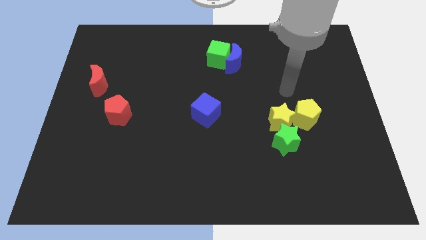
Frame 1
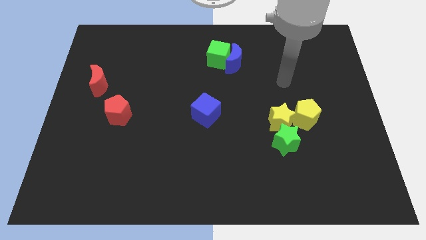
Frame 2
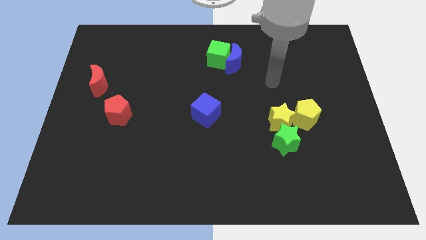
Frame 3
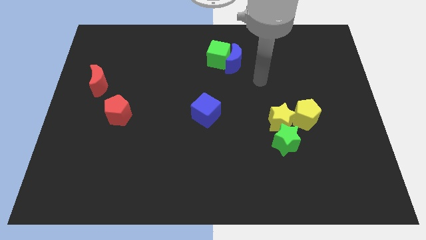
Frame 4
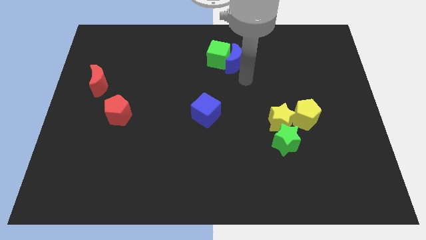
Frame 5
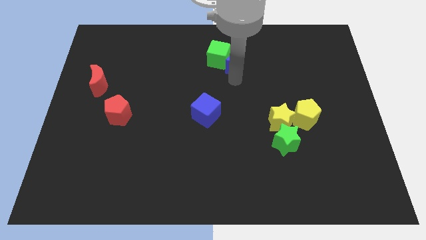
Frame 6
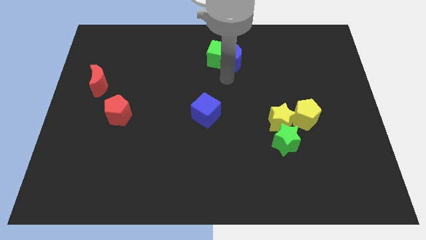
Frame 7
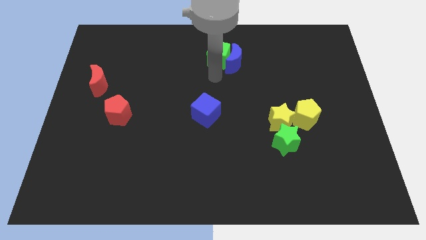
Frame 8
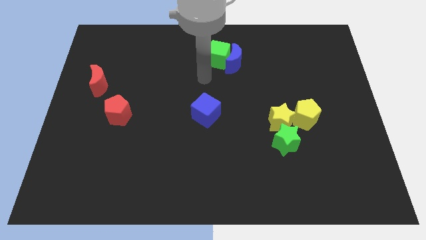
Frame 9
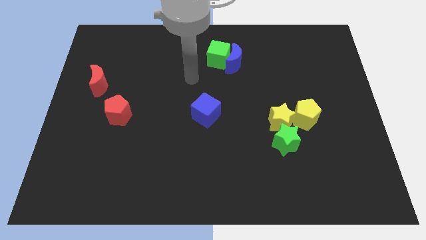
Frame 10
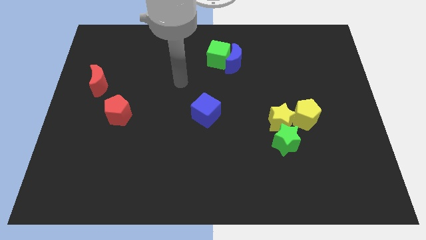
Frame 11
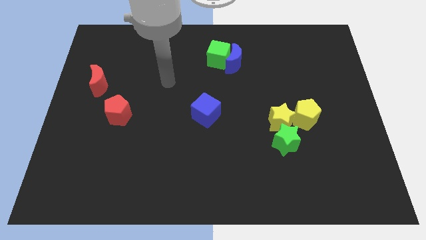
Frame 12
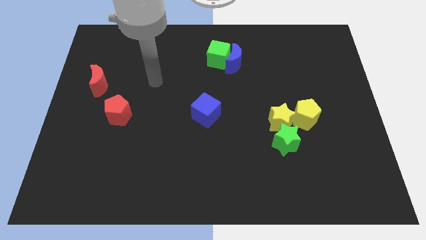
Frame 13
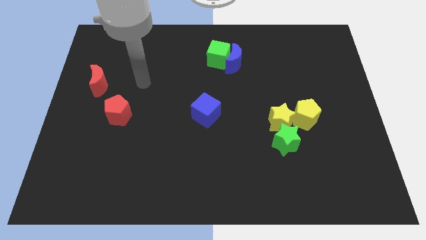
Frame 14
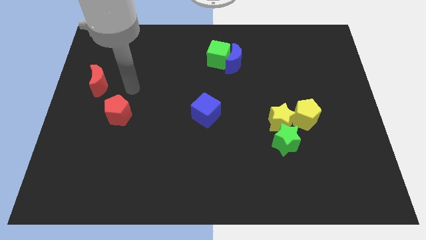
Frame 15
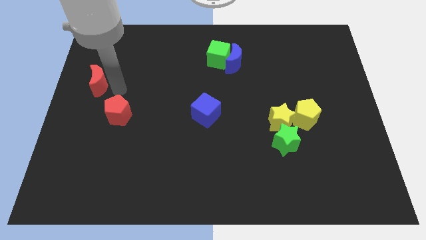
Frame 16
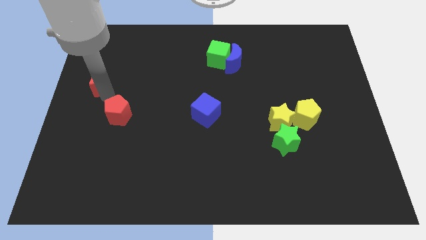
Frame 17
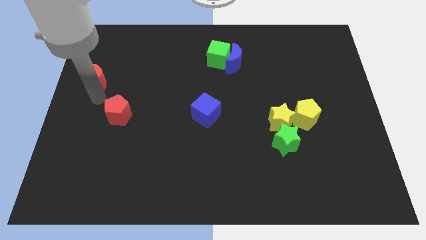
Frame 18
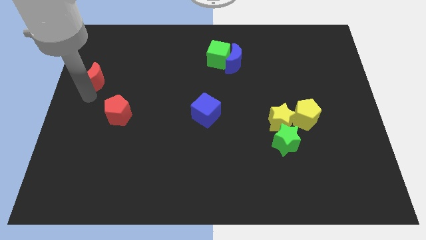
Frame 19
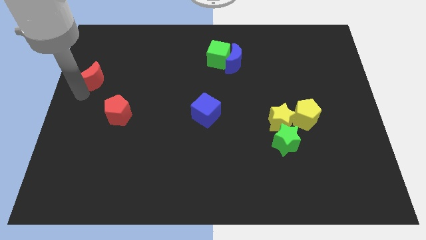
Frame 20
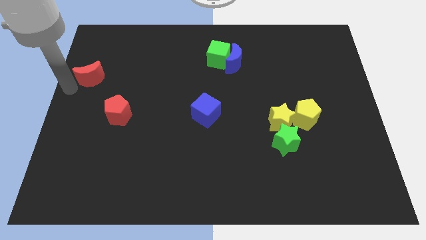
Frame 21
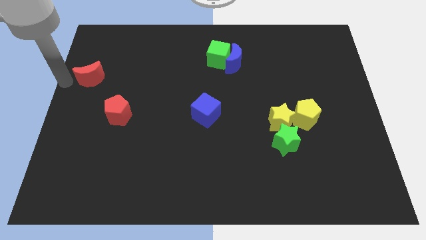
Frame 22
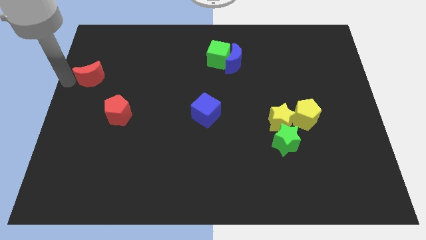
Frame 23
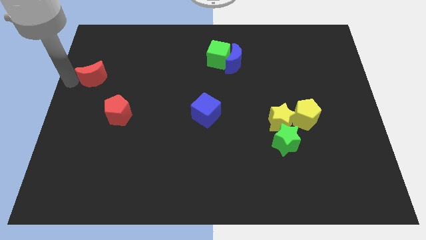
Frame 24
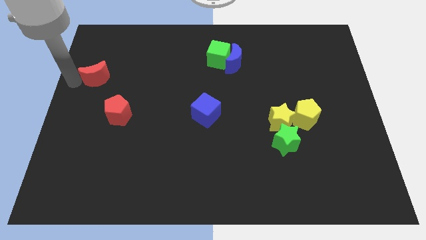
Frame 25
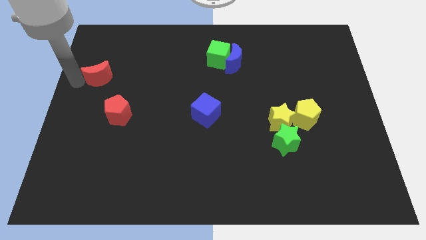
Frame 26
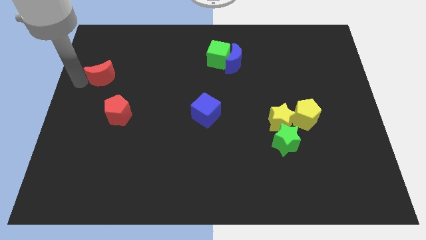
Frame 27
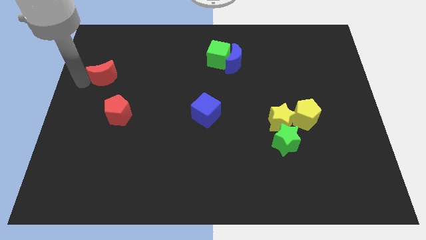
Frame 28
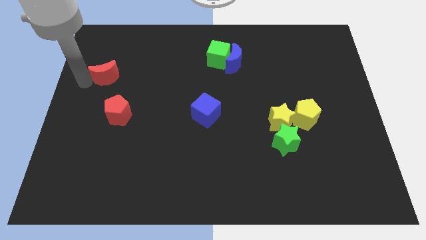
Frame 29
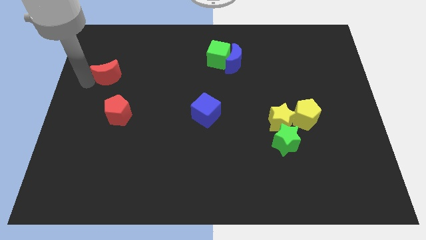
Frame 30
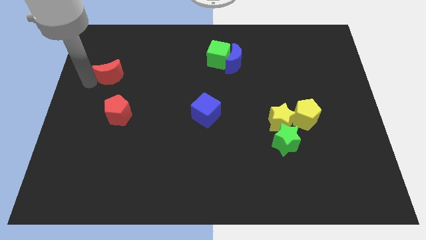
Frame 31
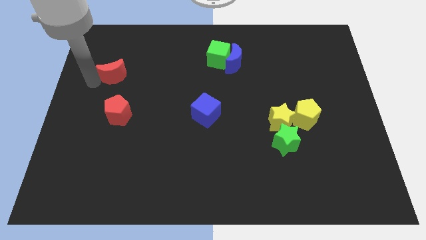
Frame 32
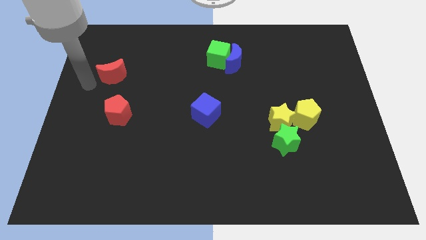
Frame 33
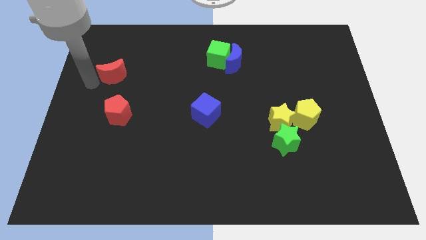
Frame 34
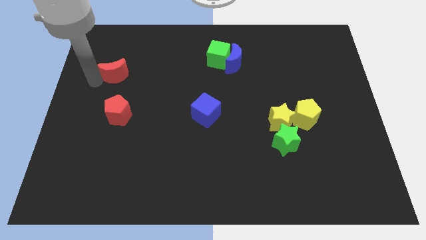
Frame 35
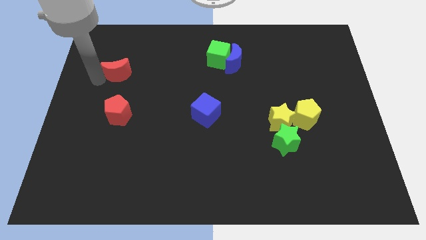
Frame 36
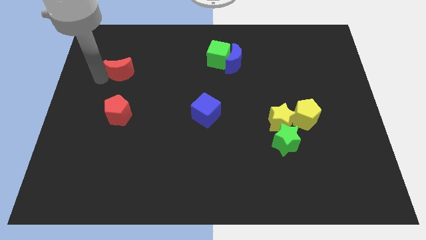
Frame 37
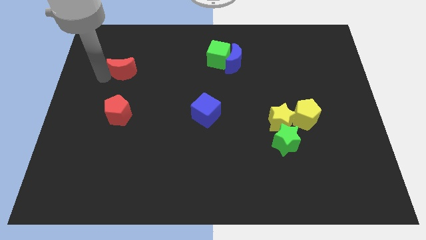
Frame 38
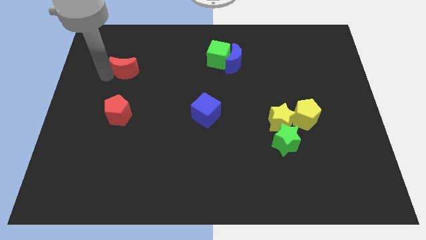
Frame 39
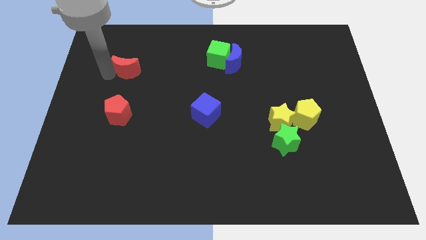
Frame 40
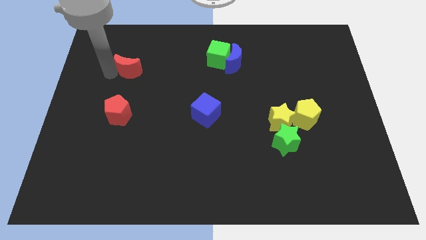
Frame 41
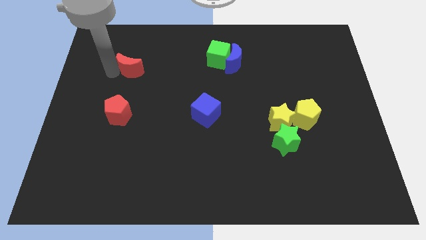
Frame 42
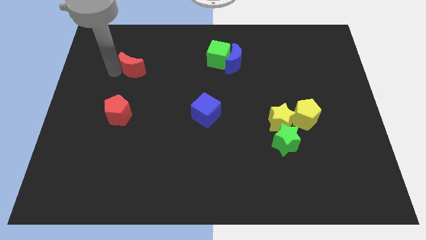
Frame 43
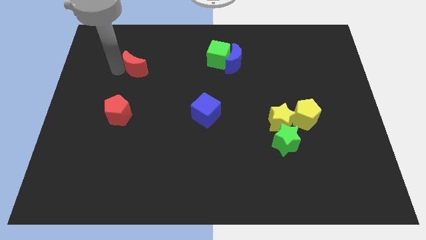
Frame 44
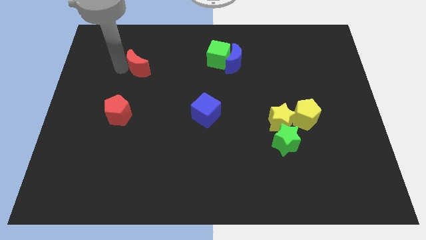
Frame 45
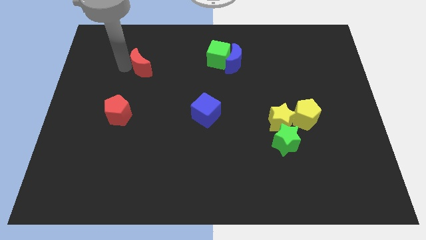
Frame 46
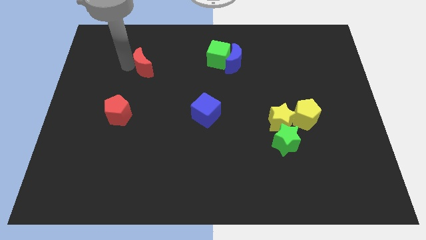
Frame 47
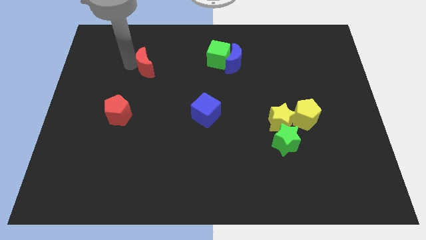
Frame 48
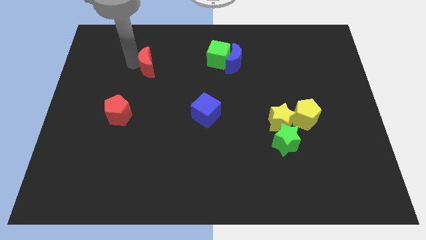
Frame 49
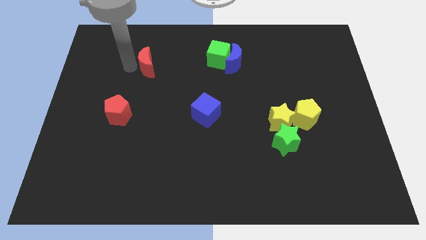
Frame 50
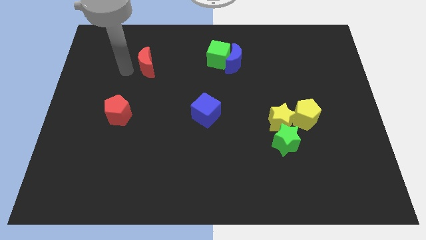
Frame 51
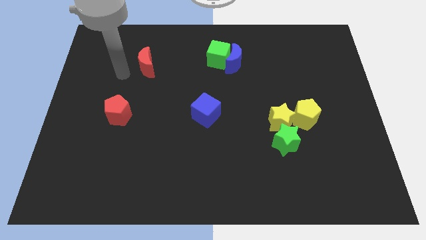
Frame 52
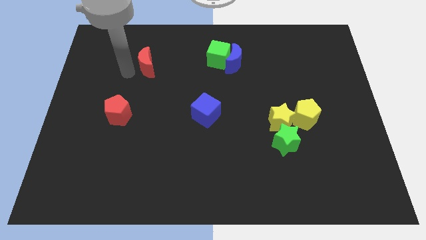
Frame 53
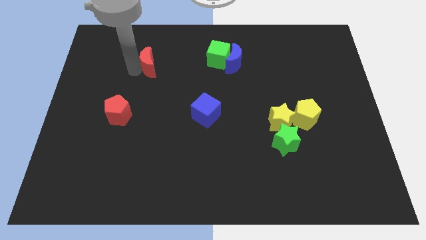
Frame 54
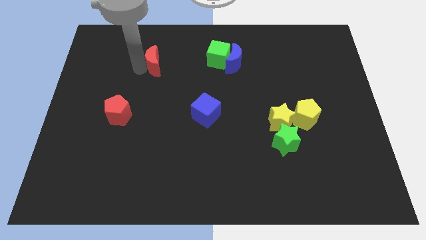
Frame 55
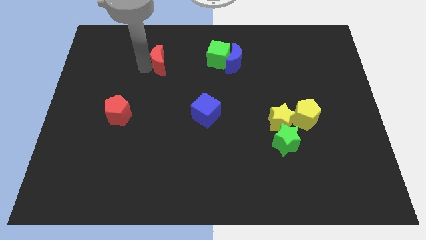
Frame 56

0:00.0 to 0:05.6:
push the red moon to the left side of the green cube

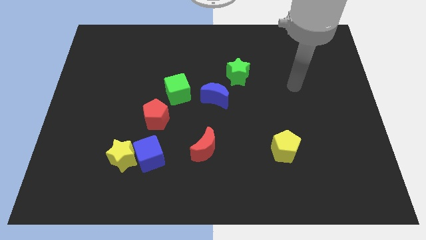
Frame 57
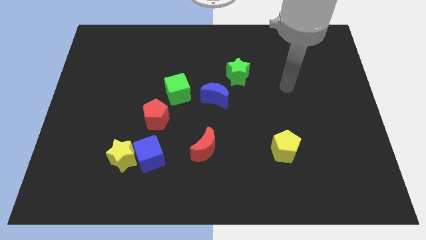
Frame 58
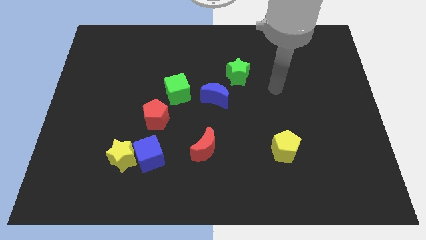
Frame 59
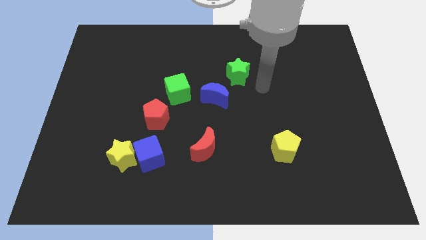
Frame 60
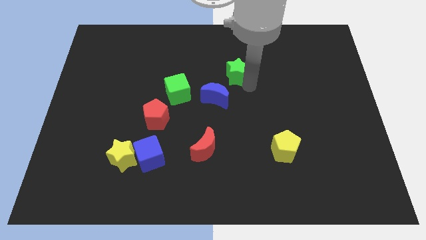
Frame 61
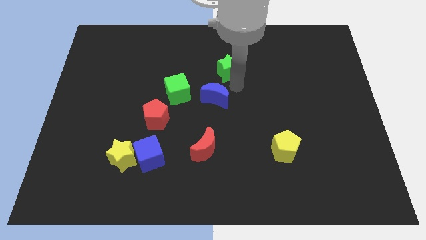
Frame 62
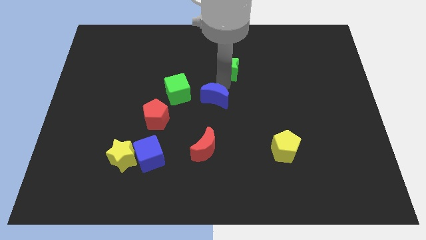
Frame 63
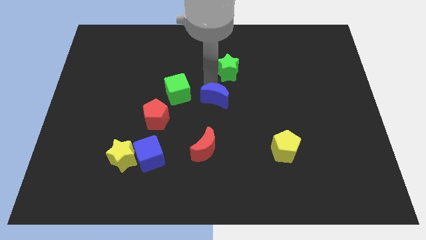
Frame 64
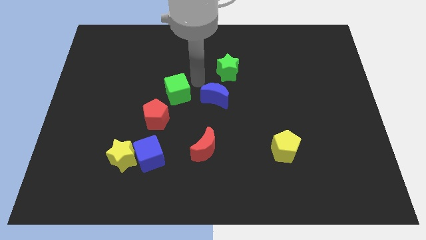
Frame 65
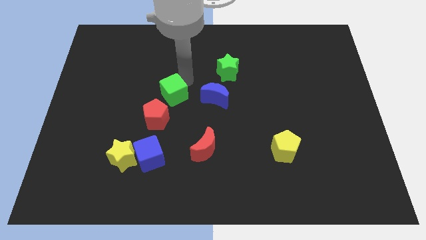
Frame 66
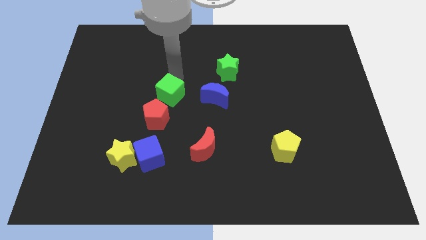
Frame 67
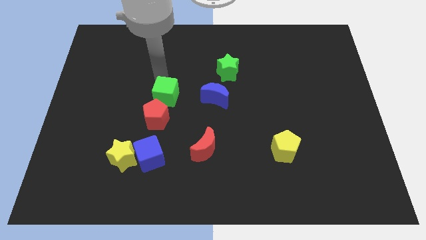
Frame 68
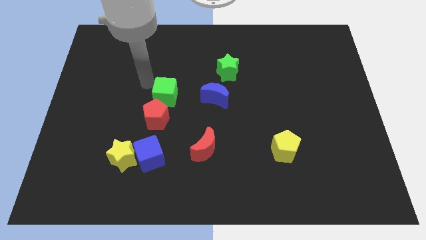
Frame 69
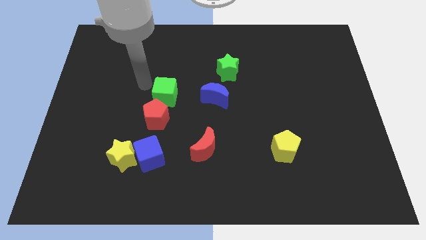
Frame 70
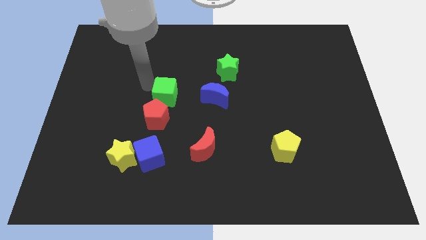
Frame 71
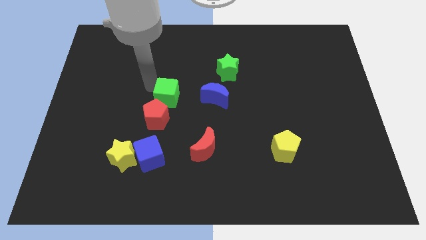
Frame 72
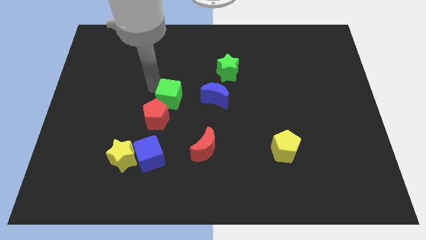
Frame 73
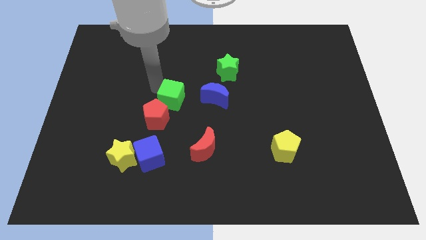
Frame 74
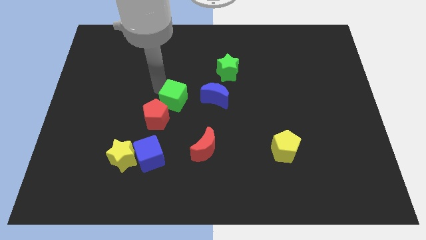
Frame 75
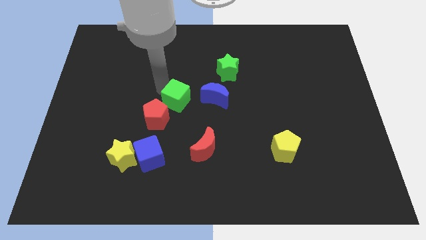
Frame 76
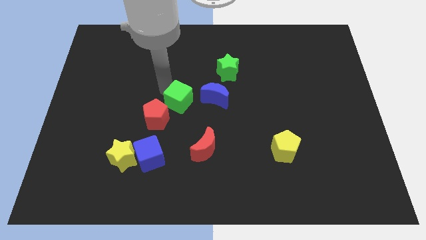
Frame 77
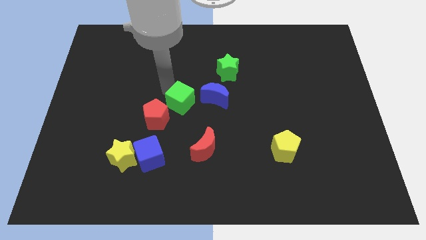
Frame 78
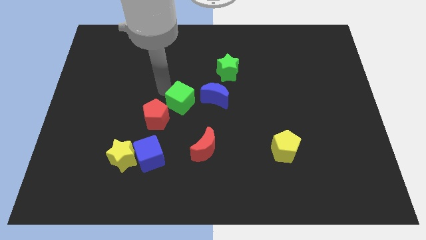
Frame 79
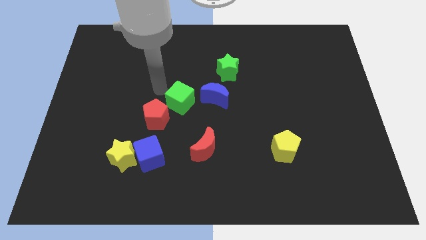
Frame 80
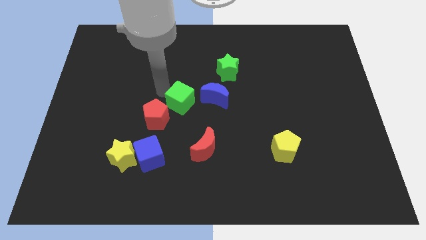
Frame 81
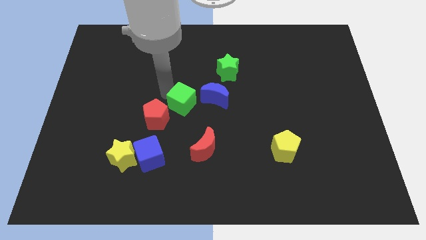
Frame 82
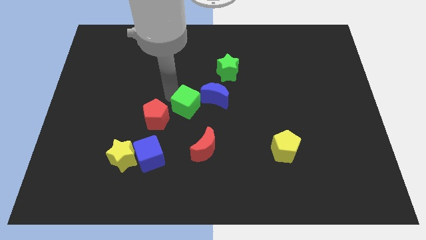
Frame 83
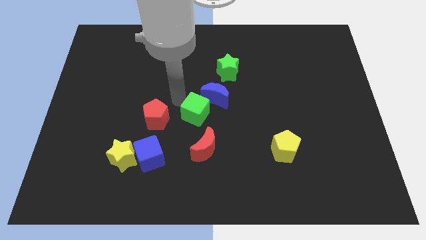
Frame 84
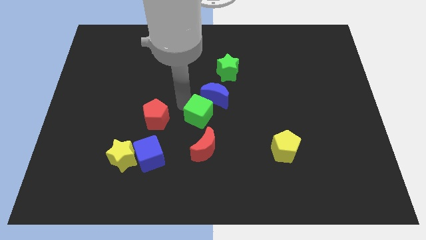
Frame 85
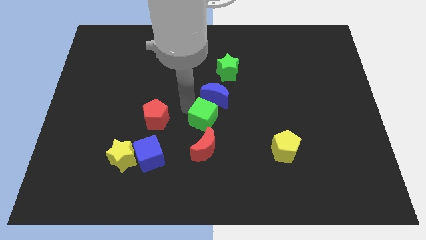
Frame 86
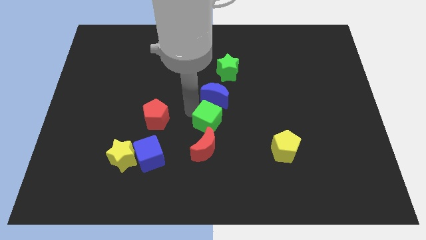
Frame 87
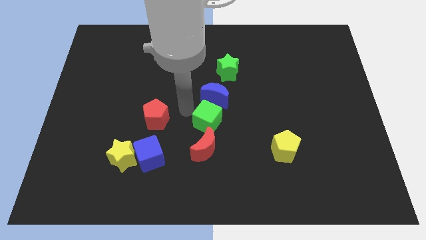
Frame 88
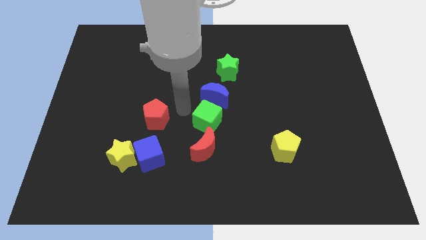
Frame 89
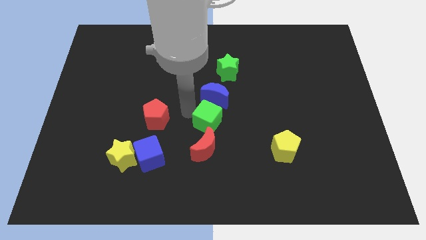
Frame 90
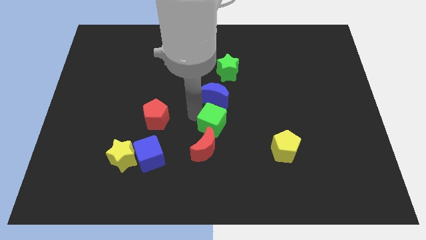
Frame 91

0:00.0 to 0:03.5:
push the green cube diagonally up and to the right of the red moon
